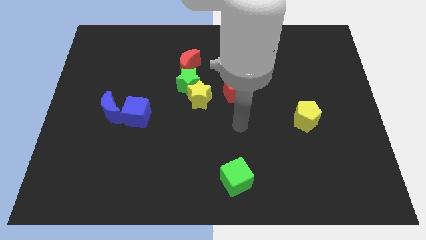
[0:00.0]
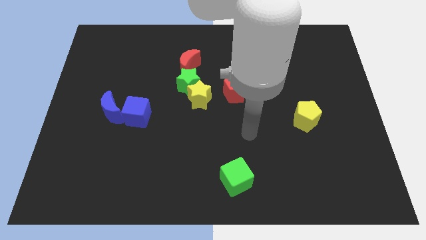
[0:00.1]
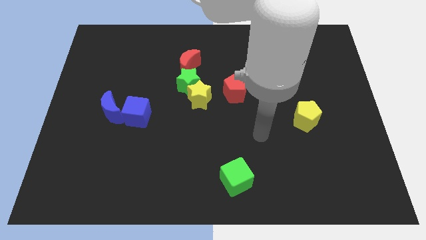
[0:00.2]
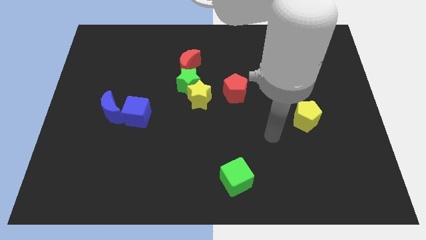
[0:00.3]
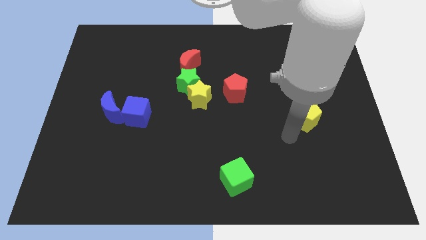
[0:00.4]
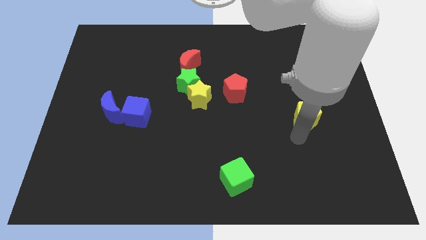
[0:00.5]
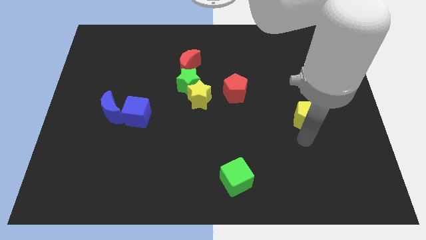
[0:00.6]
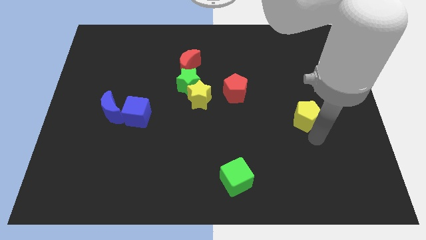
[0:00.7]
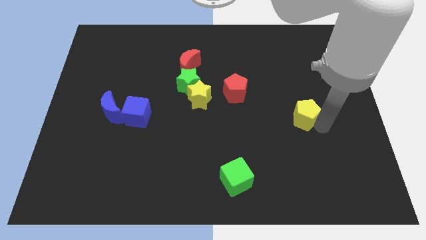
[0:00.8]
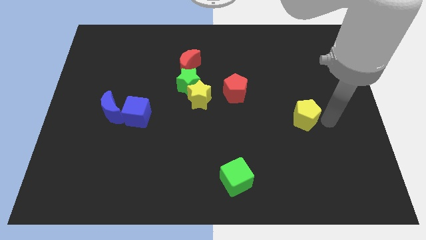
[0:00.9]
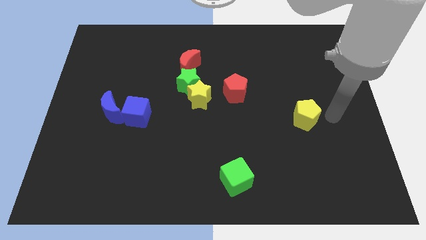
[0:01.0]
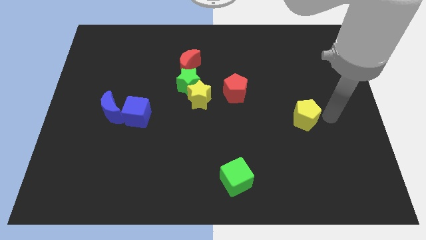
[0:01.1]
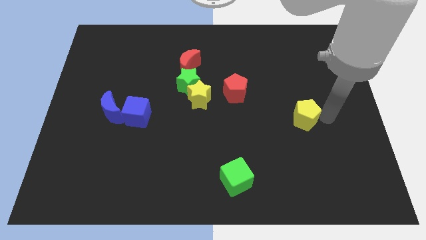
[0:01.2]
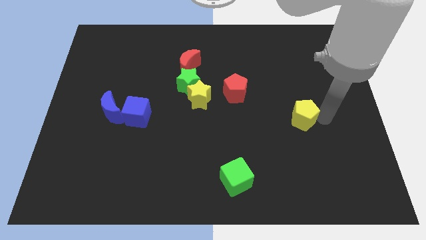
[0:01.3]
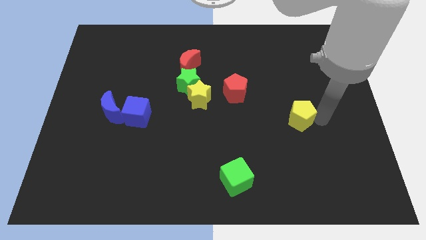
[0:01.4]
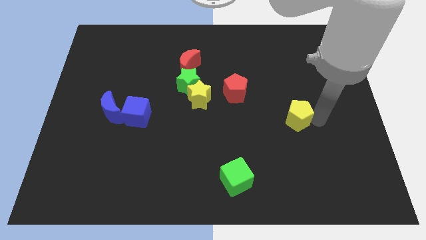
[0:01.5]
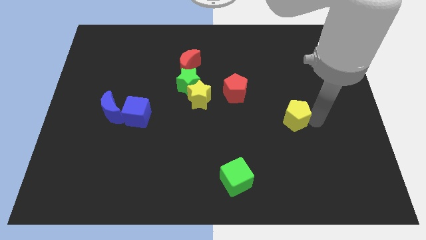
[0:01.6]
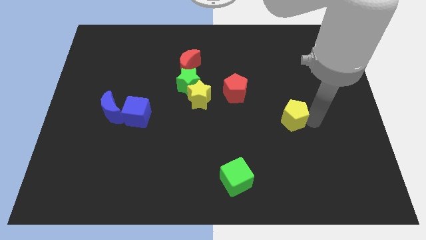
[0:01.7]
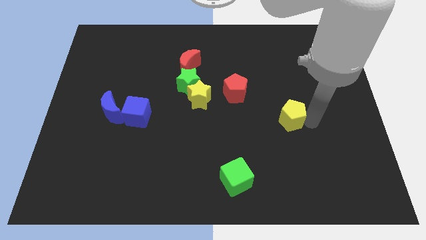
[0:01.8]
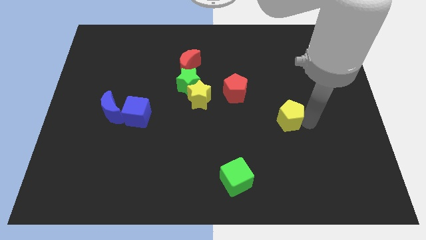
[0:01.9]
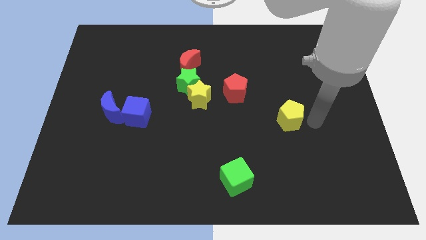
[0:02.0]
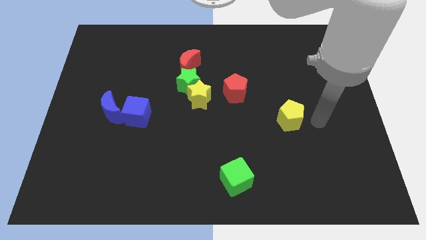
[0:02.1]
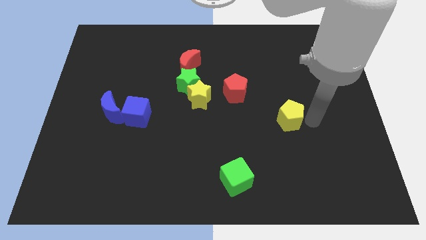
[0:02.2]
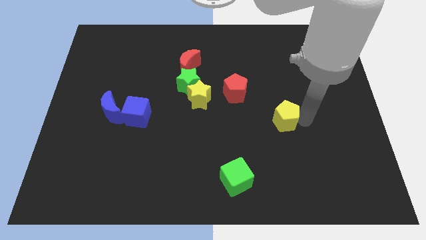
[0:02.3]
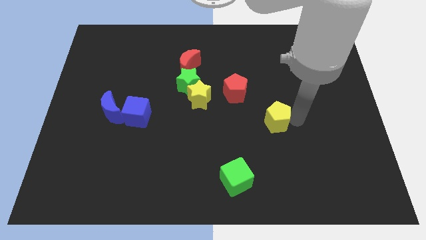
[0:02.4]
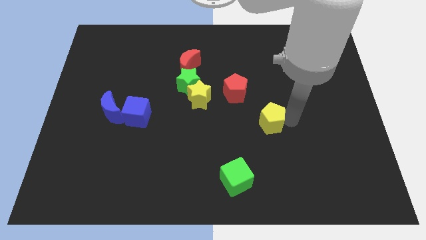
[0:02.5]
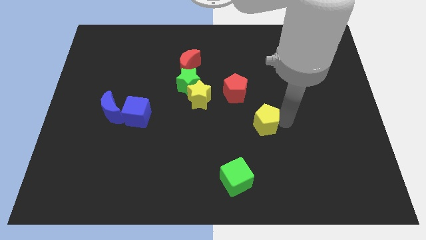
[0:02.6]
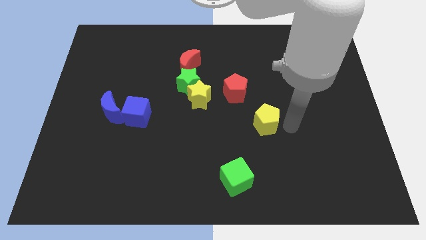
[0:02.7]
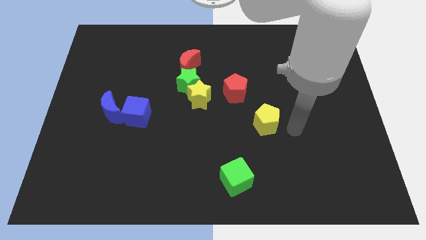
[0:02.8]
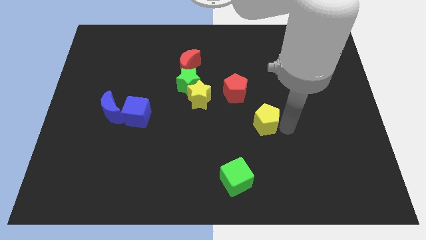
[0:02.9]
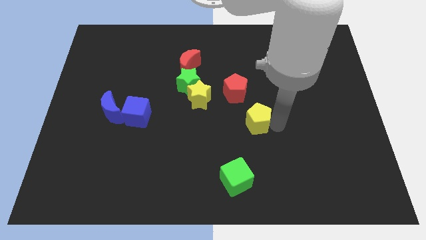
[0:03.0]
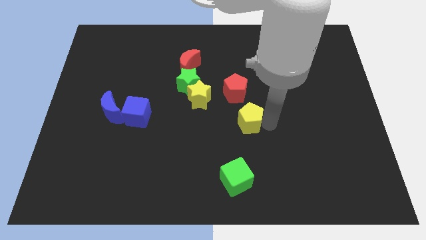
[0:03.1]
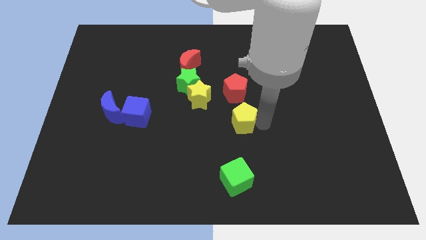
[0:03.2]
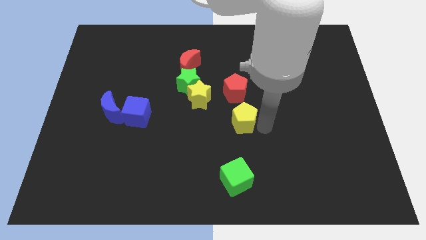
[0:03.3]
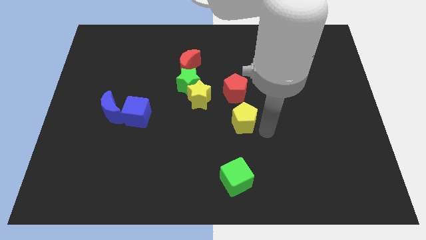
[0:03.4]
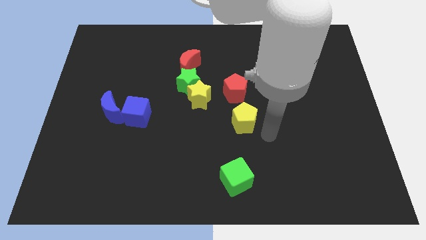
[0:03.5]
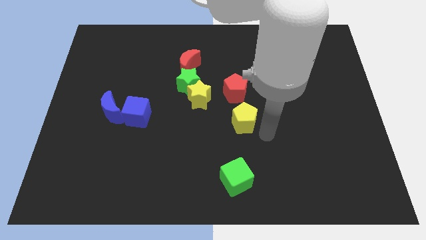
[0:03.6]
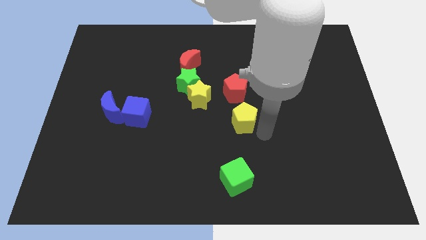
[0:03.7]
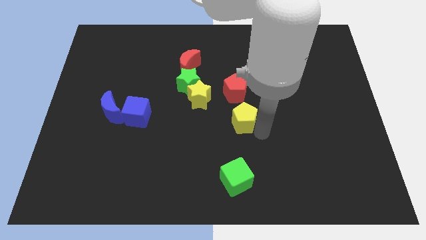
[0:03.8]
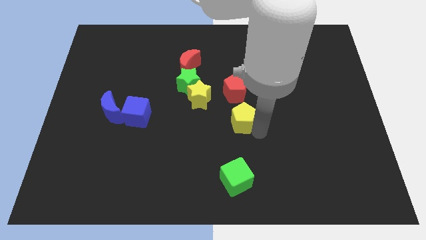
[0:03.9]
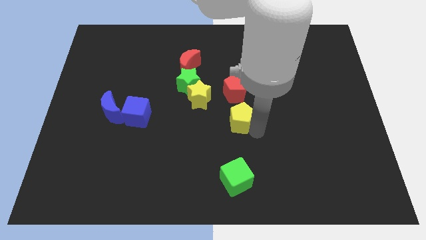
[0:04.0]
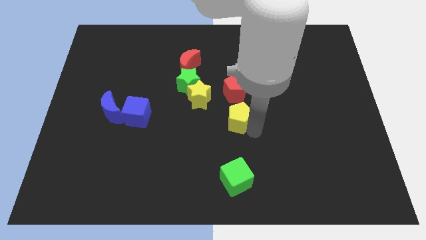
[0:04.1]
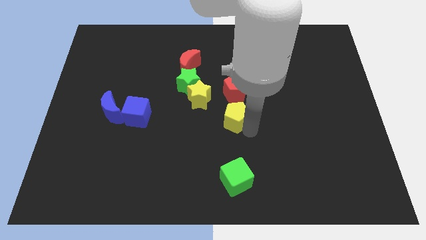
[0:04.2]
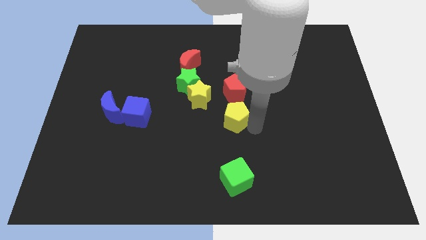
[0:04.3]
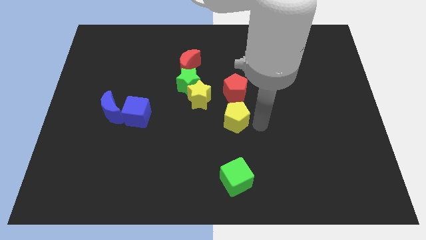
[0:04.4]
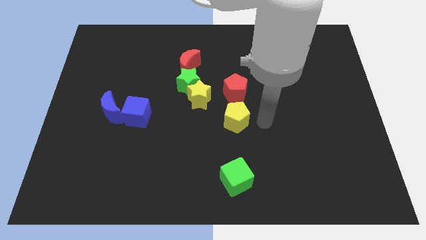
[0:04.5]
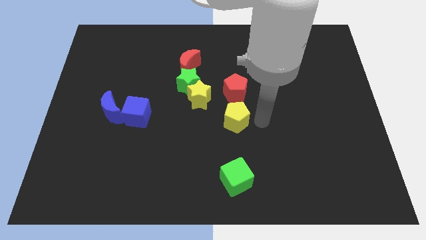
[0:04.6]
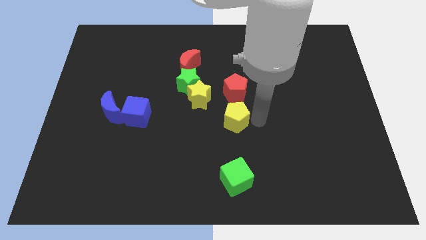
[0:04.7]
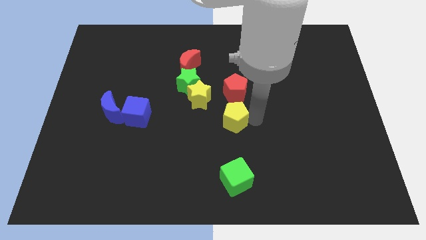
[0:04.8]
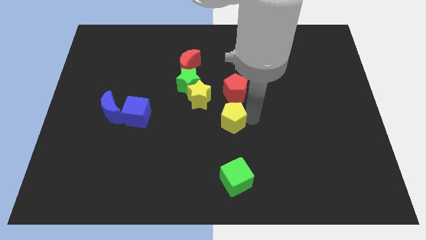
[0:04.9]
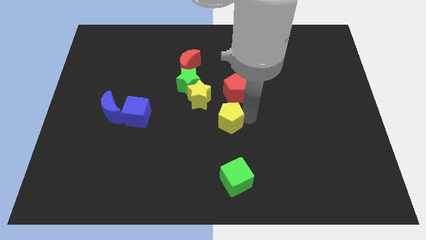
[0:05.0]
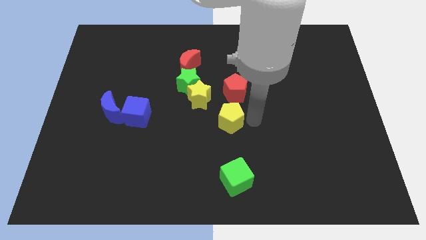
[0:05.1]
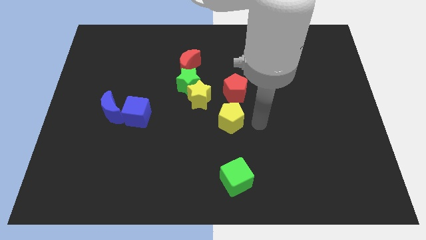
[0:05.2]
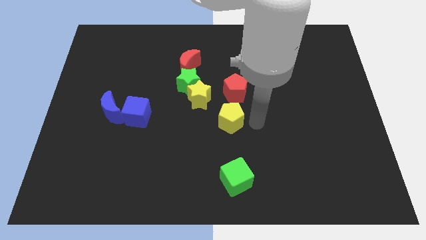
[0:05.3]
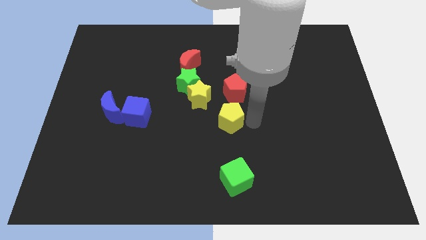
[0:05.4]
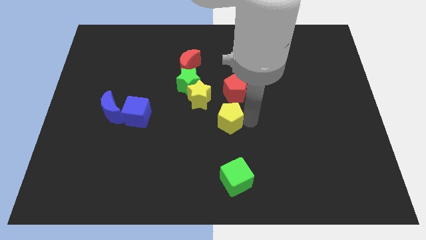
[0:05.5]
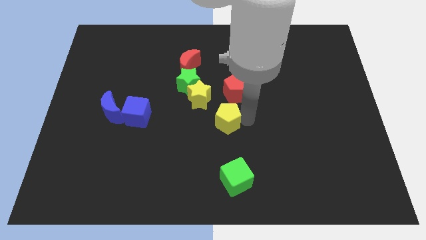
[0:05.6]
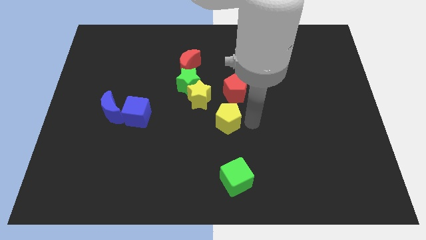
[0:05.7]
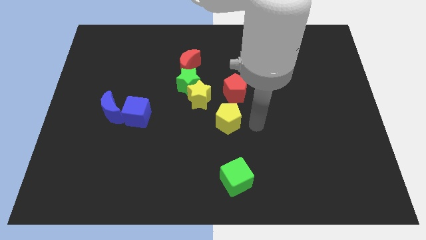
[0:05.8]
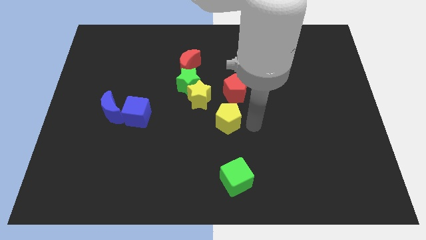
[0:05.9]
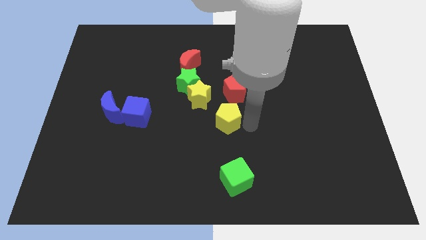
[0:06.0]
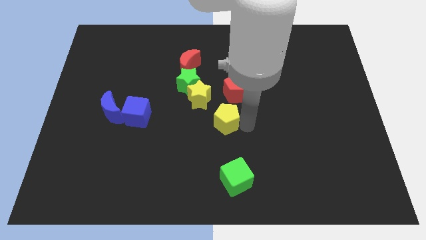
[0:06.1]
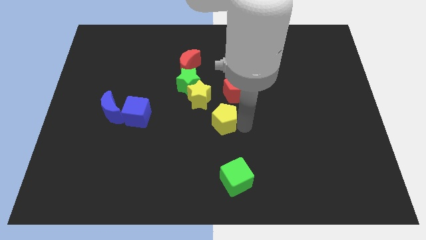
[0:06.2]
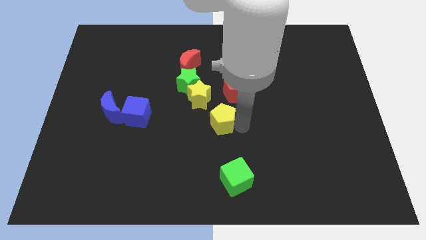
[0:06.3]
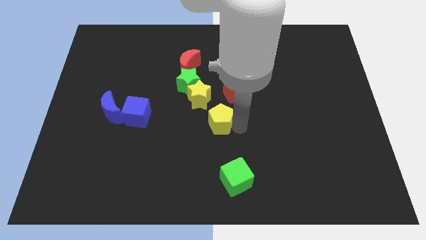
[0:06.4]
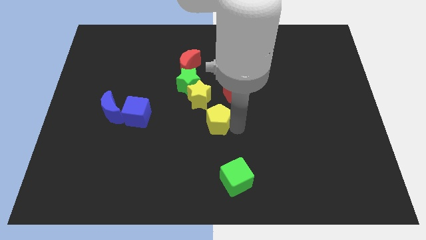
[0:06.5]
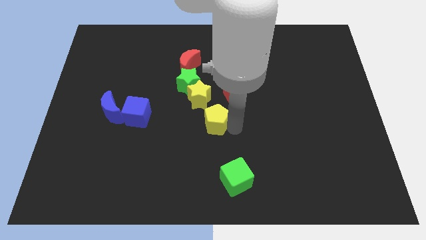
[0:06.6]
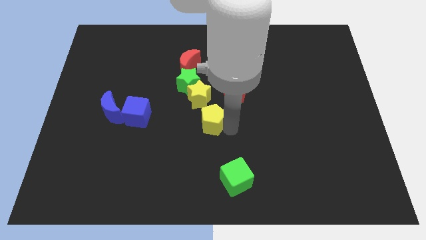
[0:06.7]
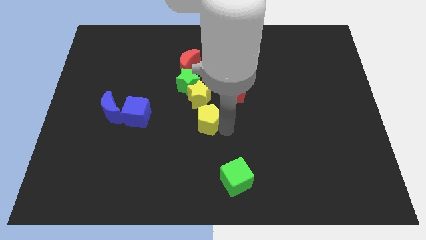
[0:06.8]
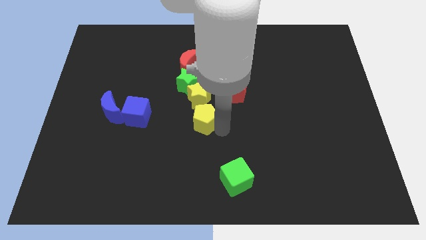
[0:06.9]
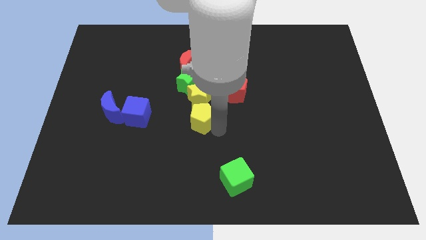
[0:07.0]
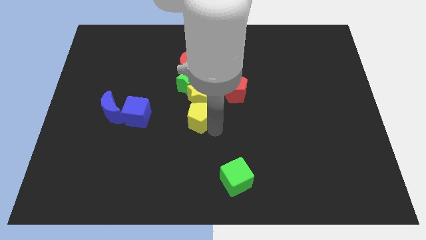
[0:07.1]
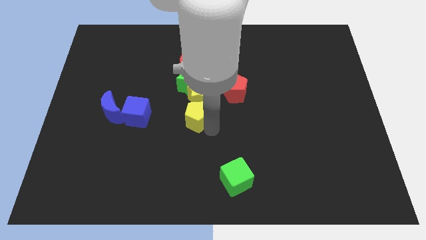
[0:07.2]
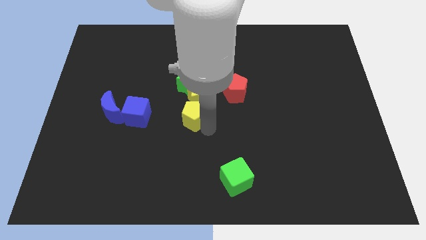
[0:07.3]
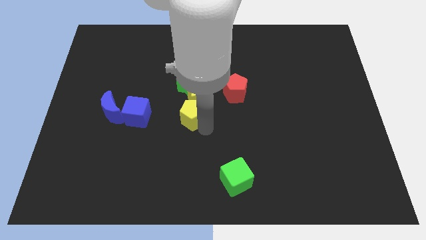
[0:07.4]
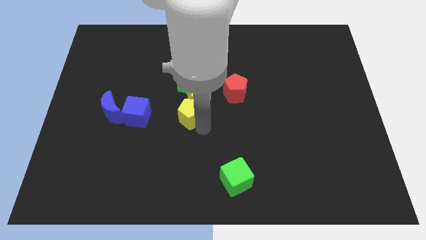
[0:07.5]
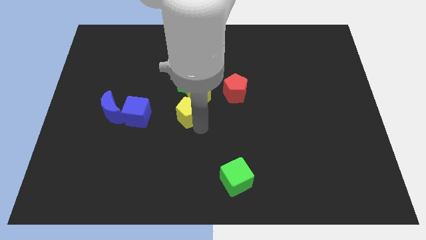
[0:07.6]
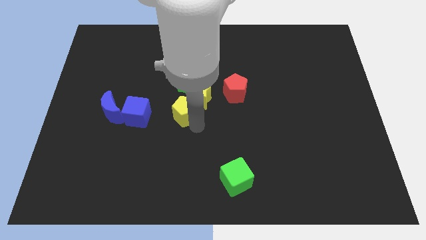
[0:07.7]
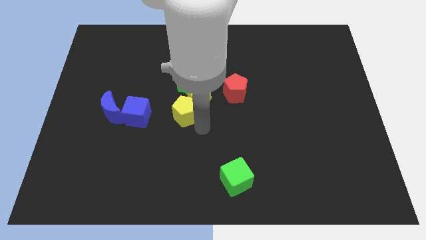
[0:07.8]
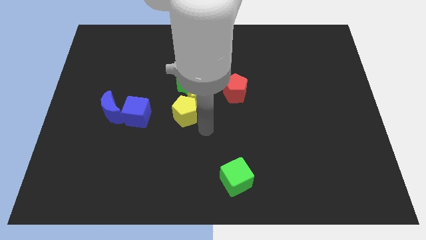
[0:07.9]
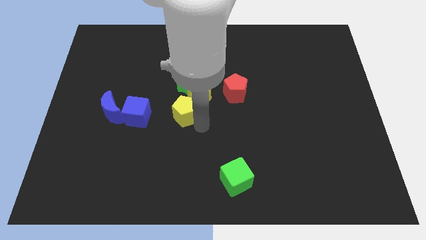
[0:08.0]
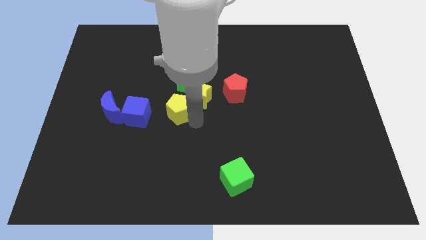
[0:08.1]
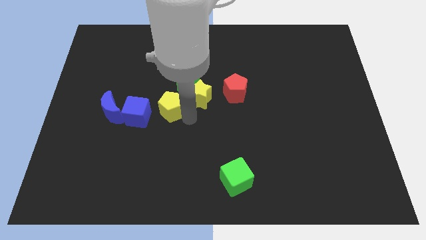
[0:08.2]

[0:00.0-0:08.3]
slide the yellow pentagon to the top right of the blue cube
